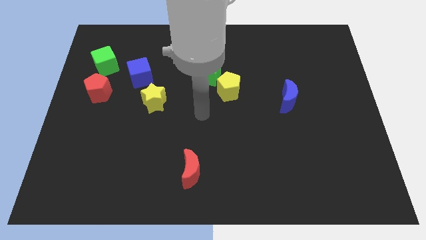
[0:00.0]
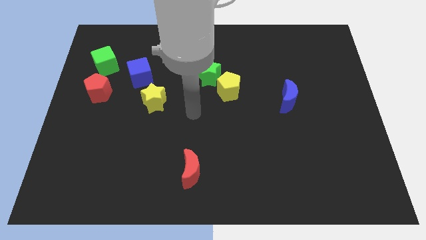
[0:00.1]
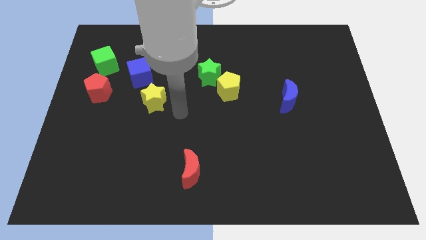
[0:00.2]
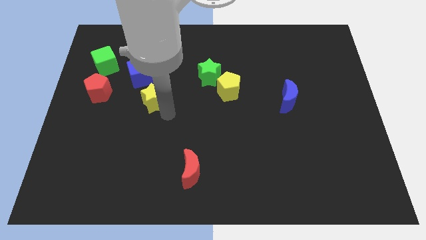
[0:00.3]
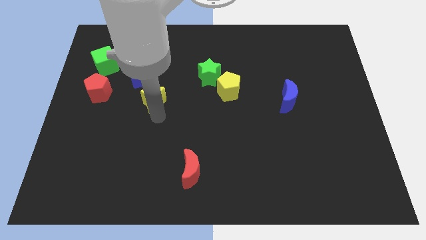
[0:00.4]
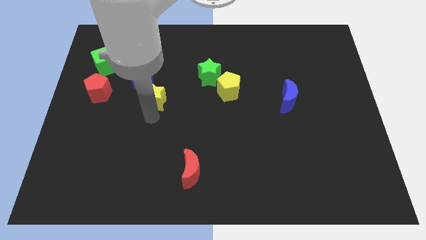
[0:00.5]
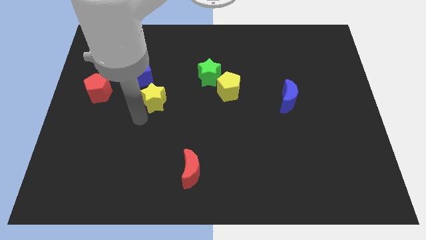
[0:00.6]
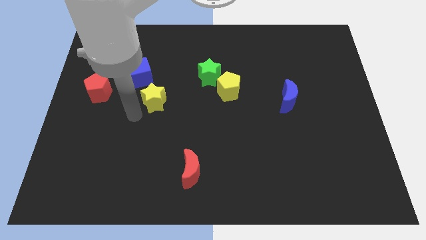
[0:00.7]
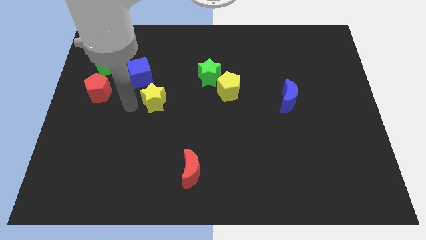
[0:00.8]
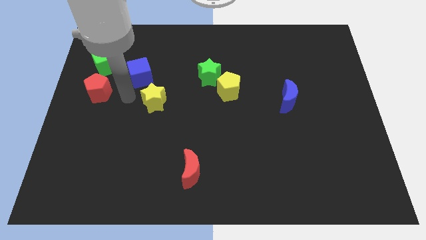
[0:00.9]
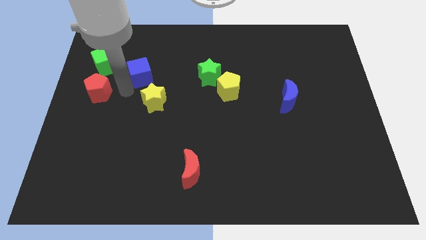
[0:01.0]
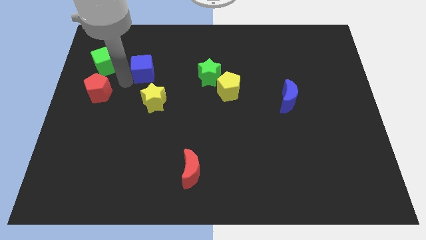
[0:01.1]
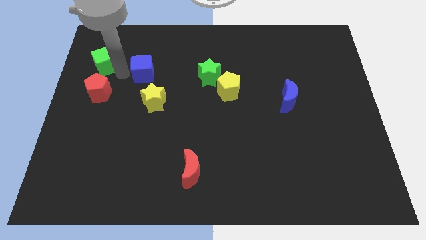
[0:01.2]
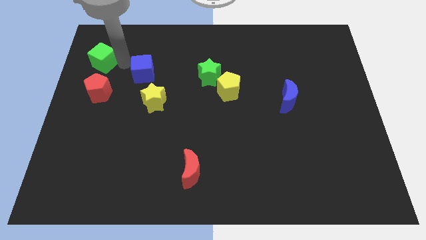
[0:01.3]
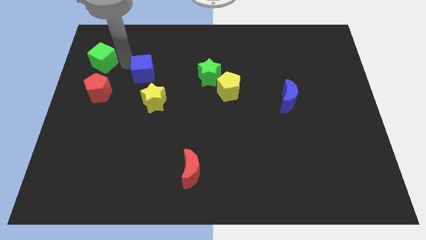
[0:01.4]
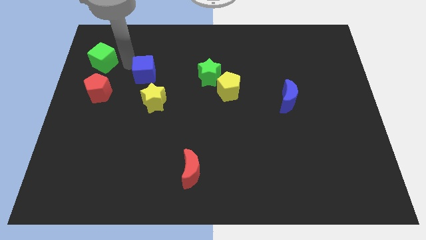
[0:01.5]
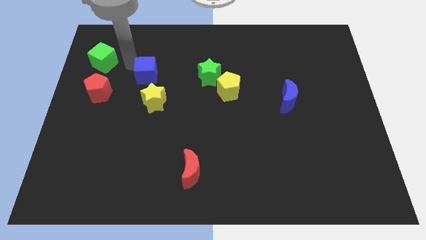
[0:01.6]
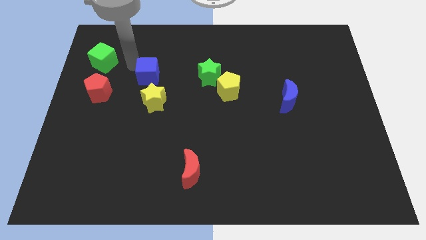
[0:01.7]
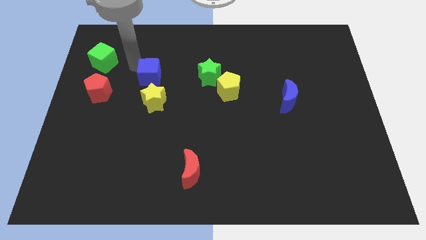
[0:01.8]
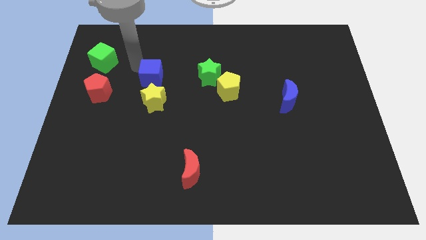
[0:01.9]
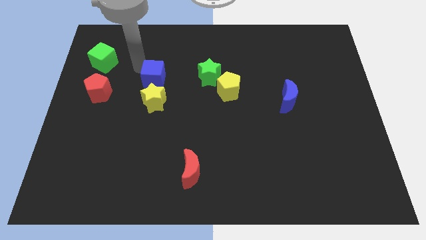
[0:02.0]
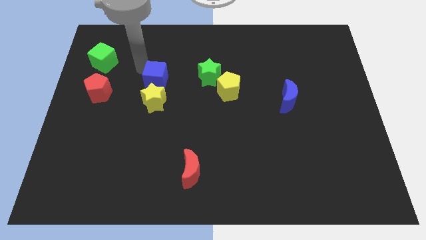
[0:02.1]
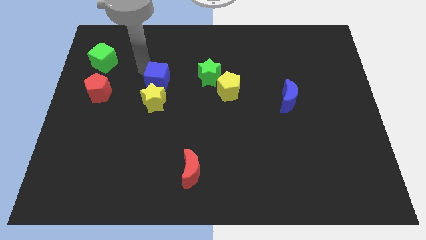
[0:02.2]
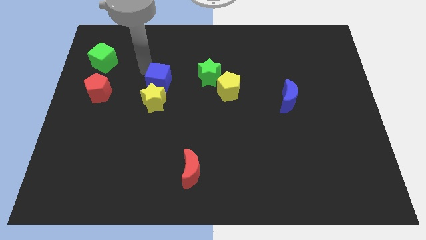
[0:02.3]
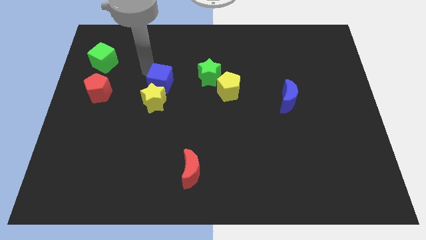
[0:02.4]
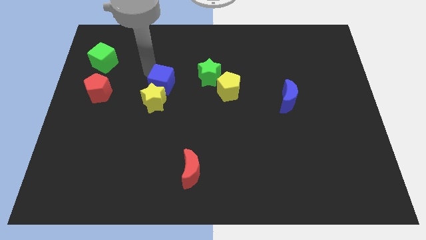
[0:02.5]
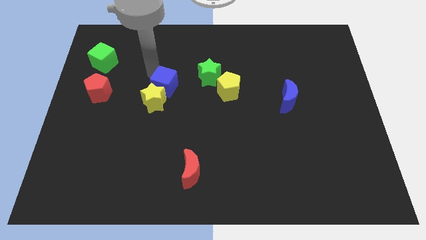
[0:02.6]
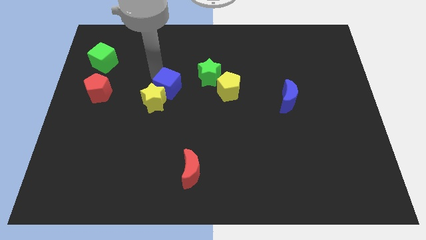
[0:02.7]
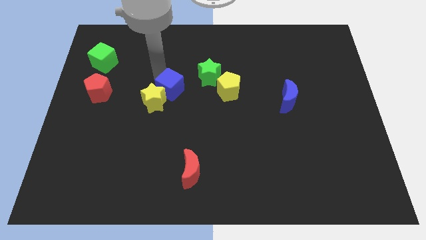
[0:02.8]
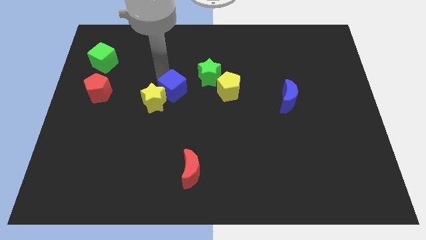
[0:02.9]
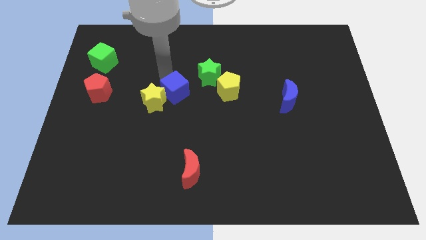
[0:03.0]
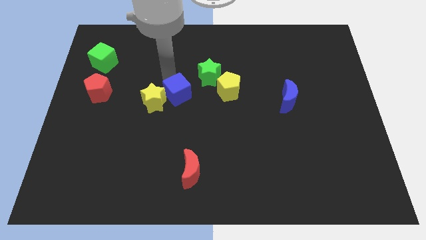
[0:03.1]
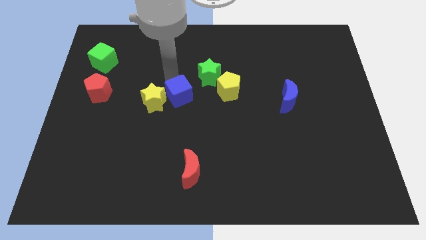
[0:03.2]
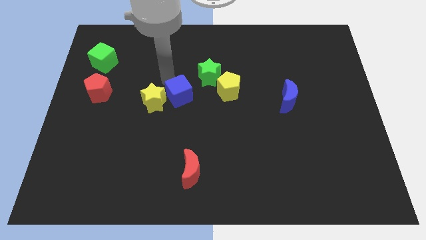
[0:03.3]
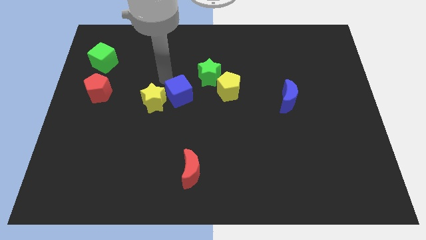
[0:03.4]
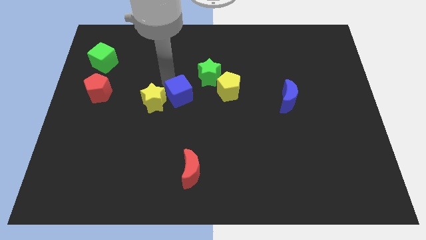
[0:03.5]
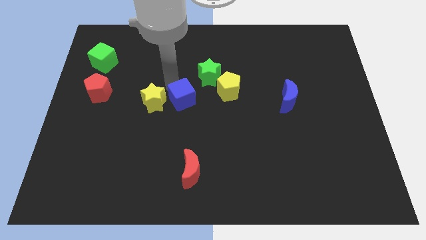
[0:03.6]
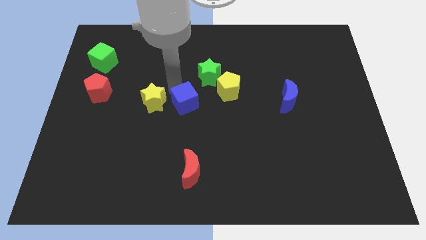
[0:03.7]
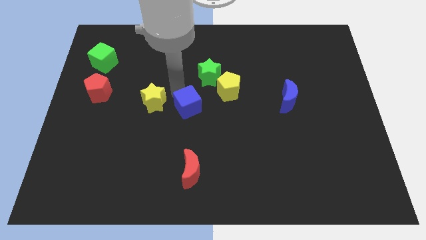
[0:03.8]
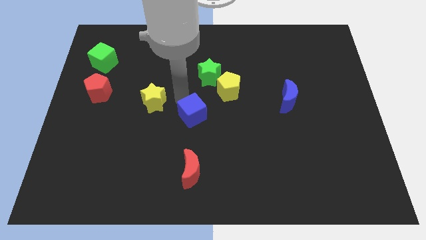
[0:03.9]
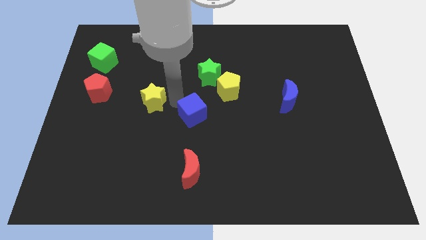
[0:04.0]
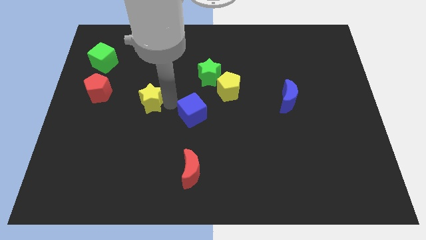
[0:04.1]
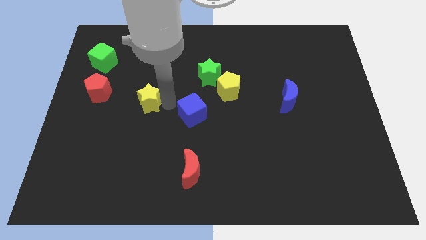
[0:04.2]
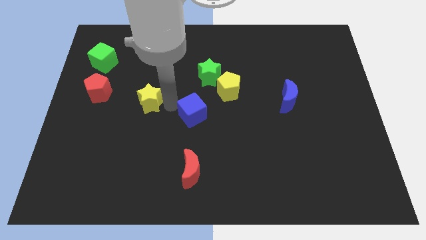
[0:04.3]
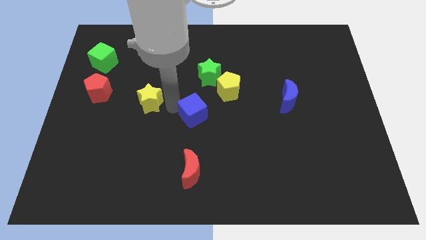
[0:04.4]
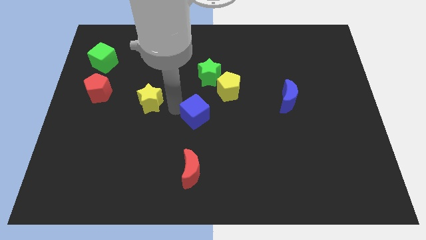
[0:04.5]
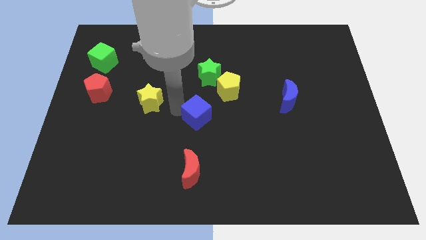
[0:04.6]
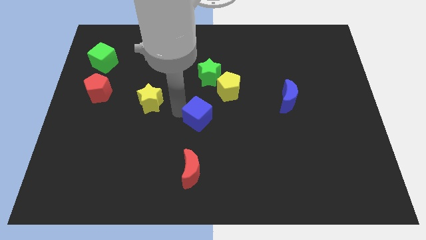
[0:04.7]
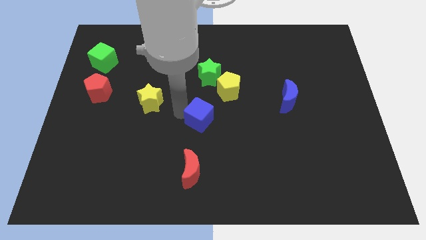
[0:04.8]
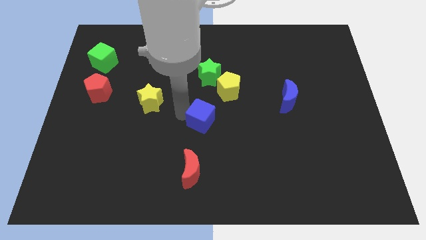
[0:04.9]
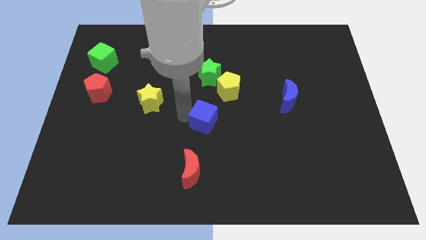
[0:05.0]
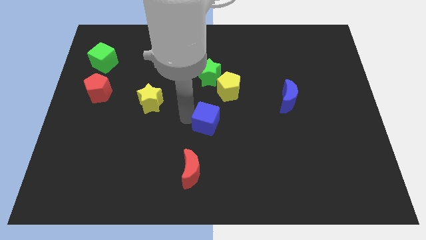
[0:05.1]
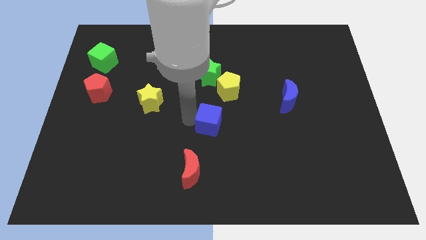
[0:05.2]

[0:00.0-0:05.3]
slide the blue cube to the bottom of the yellow pentagon

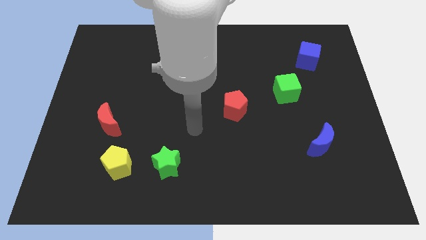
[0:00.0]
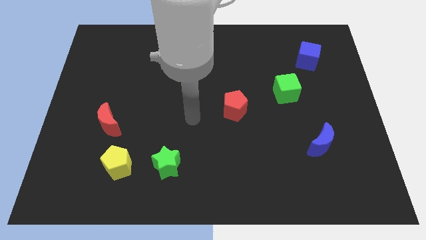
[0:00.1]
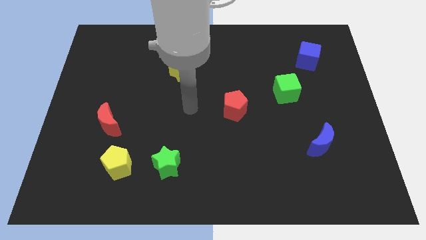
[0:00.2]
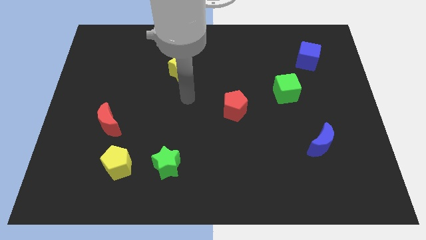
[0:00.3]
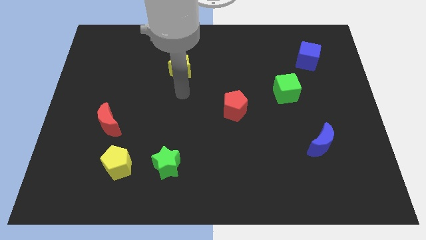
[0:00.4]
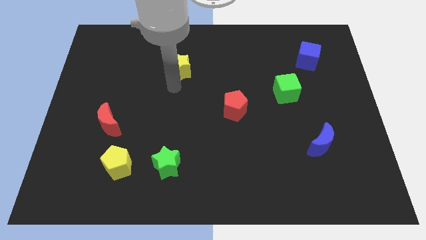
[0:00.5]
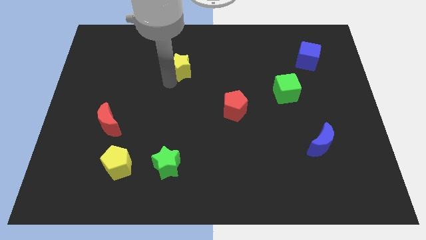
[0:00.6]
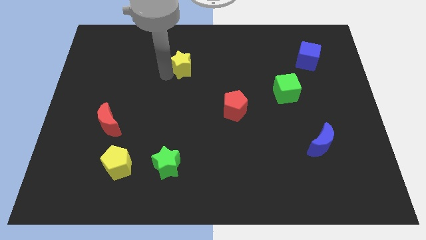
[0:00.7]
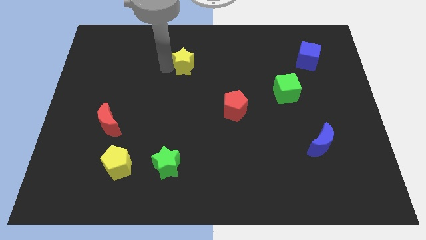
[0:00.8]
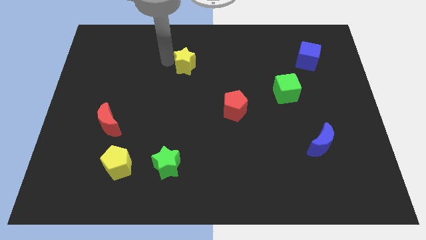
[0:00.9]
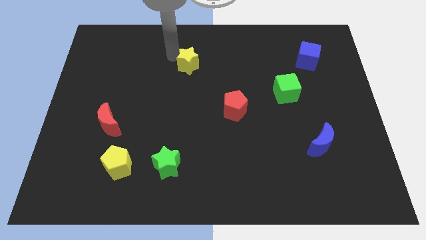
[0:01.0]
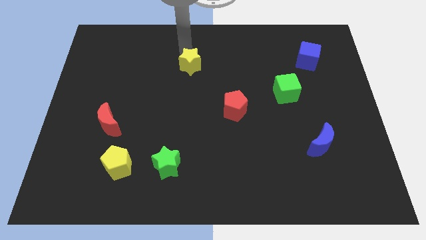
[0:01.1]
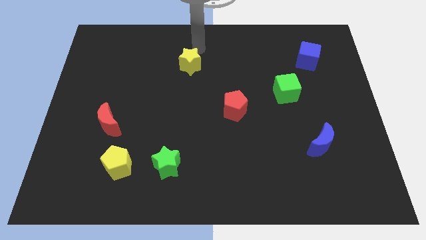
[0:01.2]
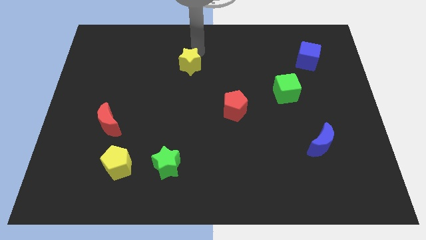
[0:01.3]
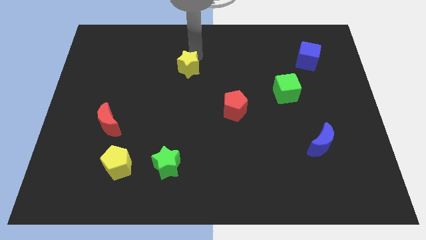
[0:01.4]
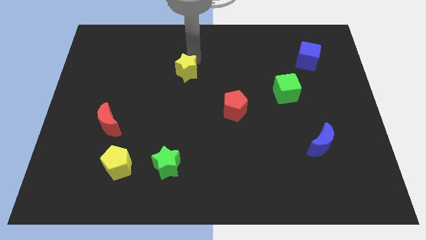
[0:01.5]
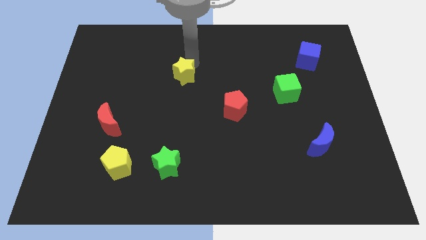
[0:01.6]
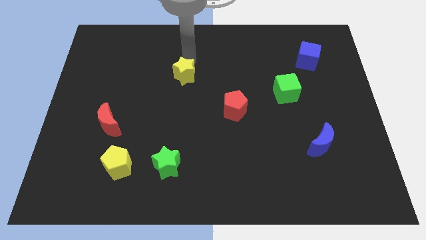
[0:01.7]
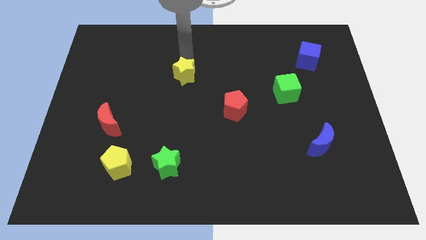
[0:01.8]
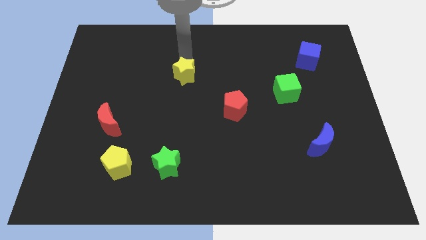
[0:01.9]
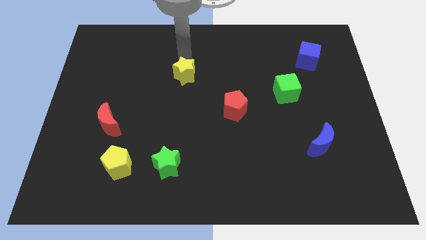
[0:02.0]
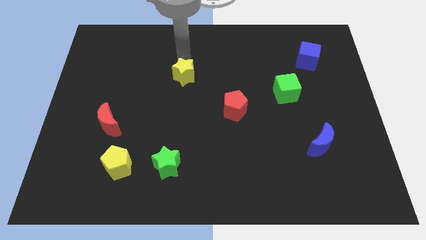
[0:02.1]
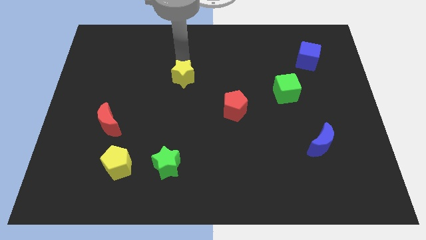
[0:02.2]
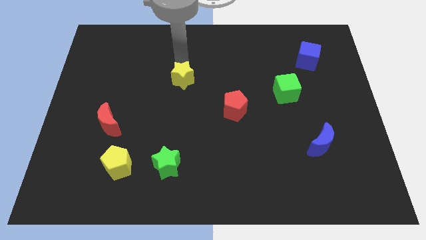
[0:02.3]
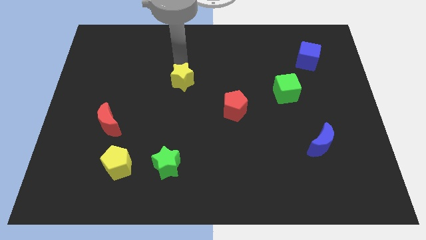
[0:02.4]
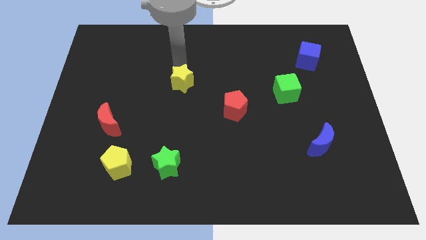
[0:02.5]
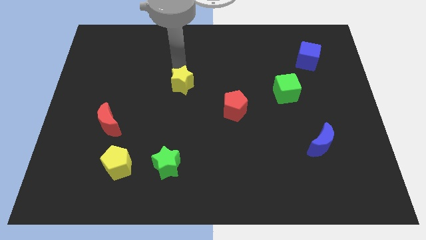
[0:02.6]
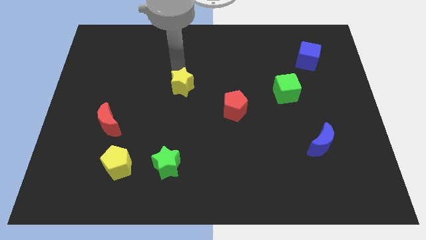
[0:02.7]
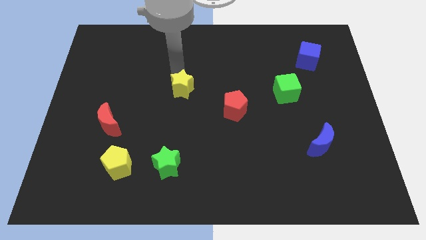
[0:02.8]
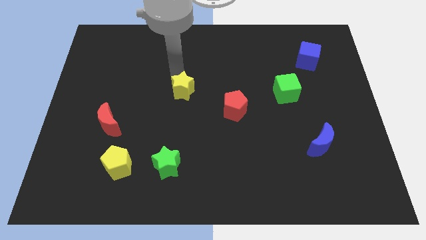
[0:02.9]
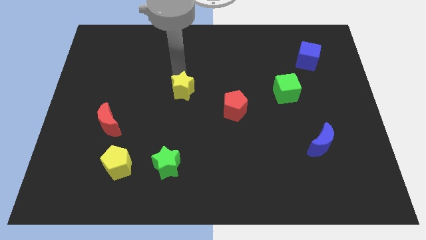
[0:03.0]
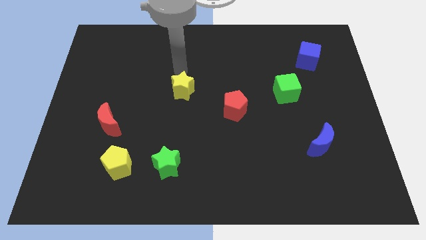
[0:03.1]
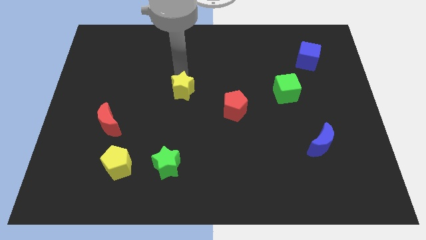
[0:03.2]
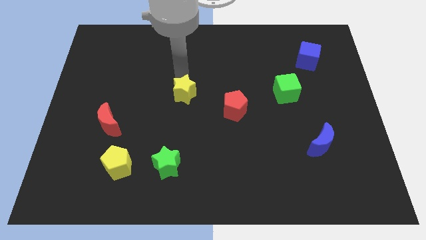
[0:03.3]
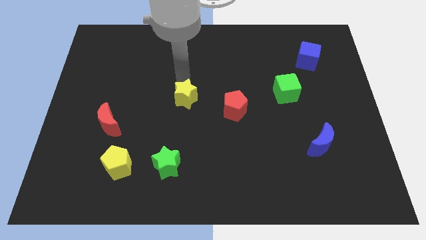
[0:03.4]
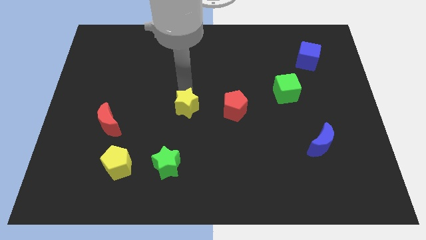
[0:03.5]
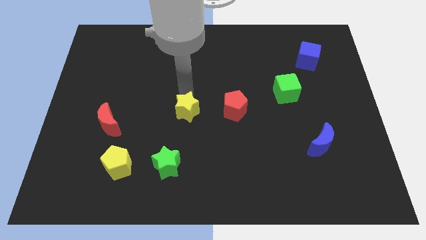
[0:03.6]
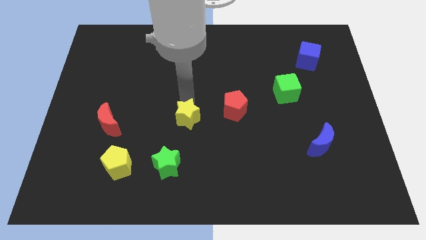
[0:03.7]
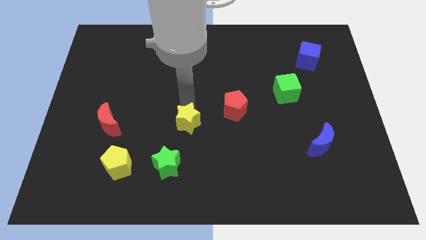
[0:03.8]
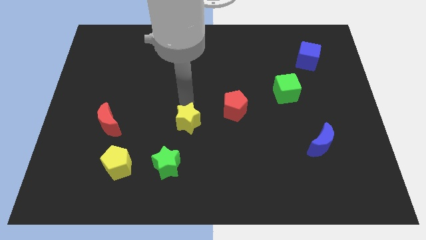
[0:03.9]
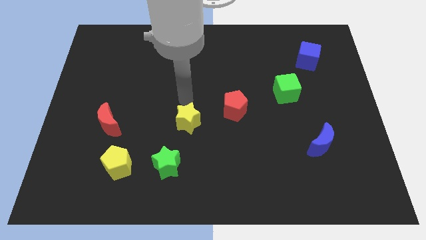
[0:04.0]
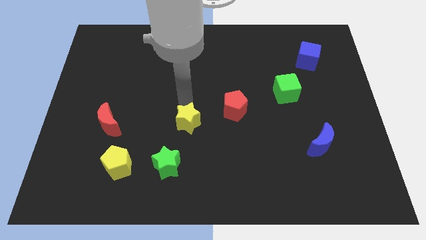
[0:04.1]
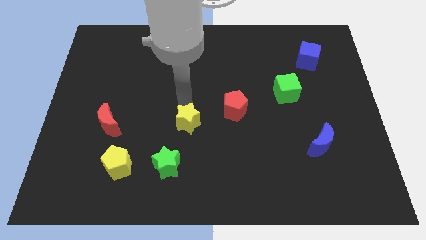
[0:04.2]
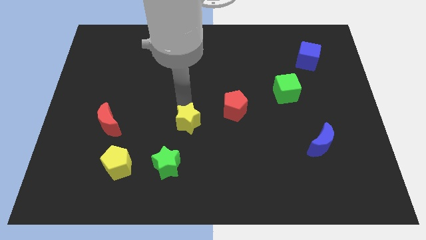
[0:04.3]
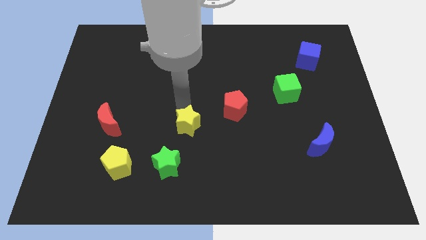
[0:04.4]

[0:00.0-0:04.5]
push the yellow star diagonally up and to the right of the green star
